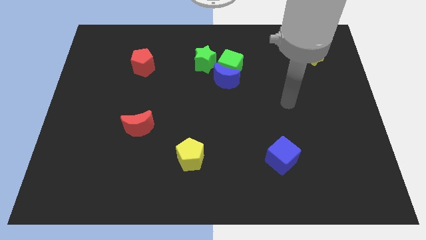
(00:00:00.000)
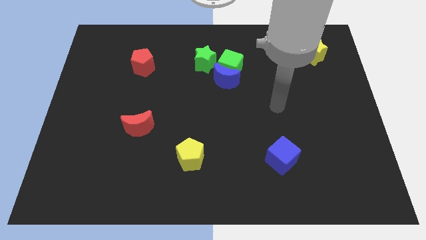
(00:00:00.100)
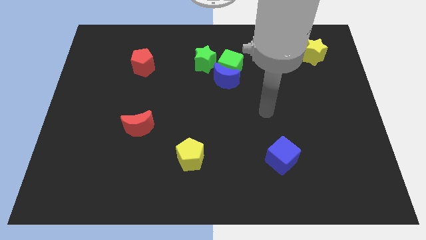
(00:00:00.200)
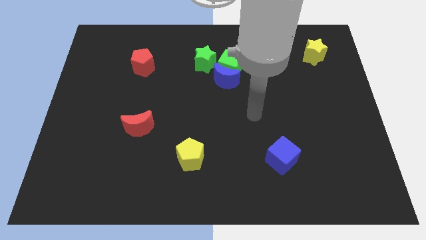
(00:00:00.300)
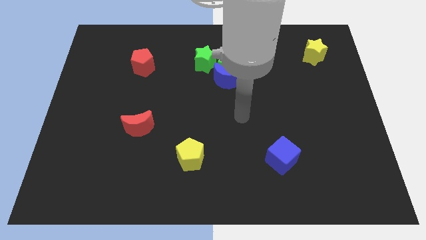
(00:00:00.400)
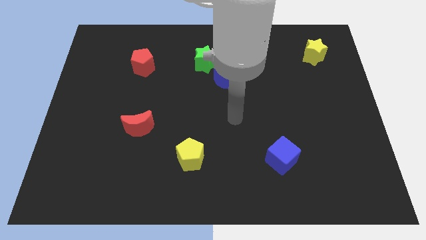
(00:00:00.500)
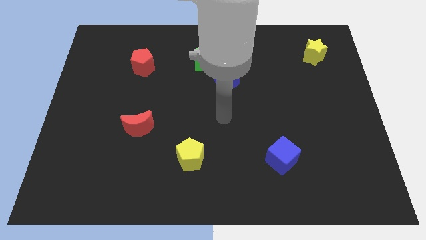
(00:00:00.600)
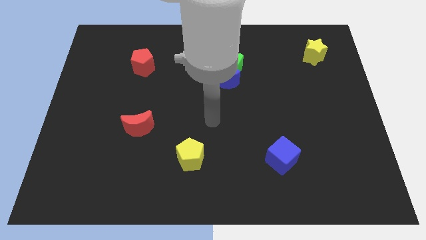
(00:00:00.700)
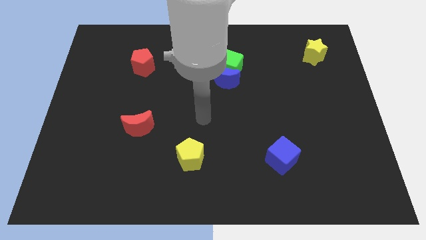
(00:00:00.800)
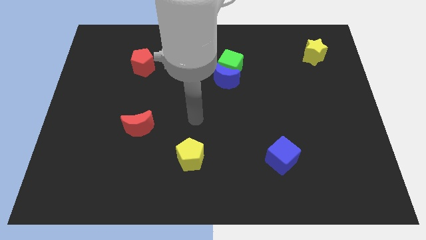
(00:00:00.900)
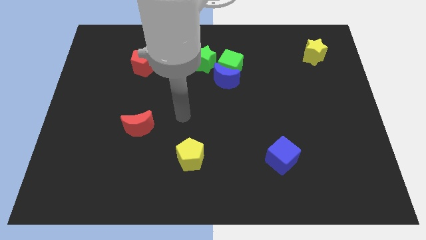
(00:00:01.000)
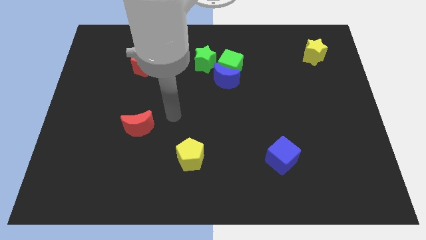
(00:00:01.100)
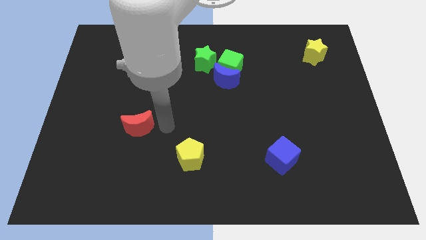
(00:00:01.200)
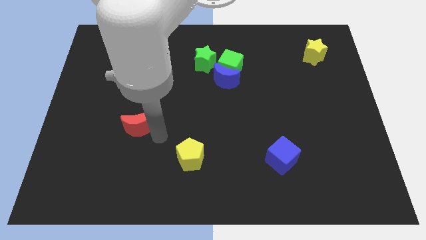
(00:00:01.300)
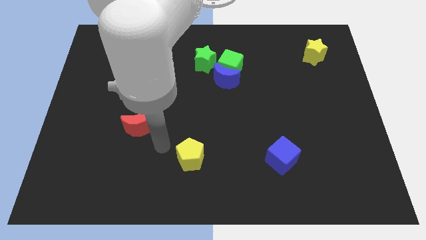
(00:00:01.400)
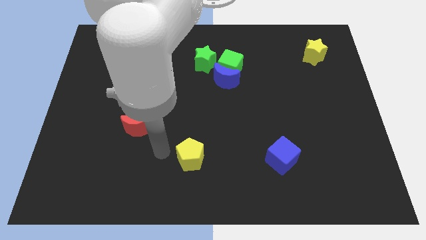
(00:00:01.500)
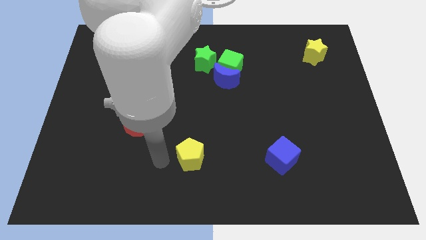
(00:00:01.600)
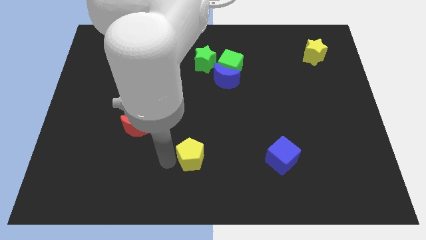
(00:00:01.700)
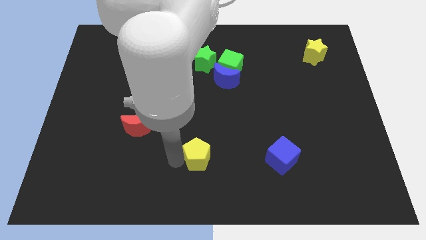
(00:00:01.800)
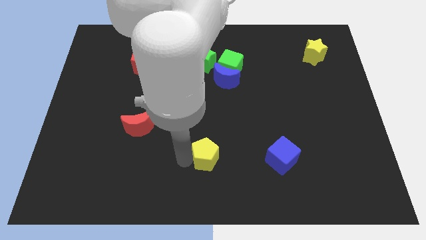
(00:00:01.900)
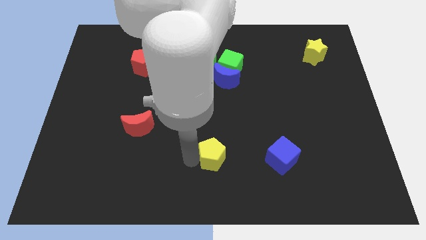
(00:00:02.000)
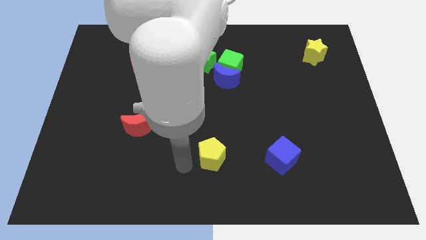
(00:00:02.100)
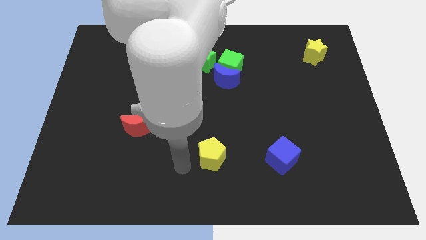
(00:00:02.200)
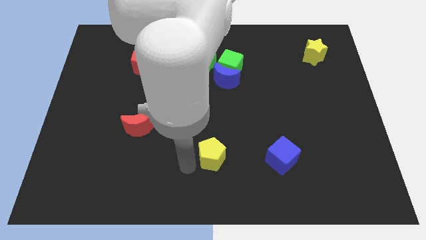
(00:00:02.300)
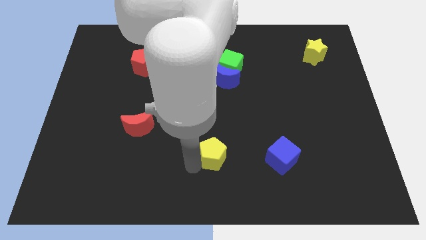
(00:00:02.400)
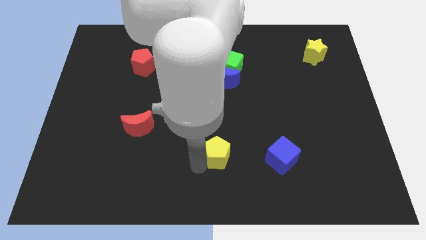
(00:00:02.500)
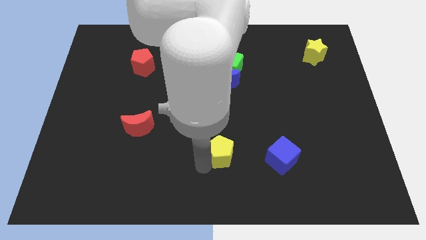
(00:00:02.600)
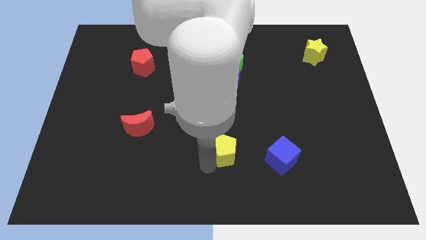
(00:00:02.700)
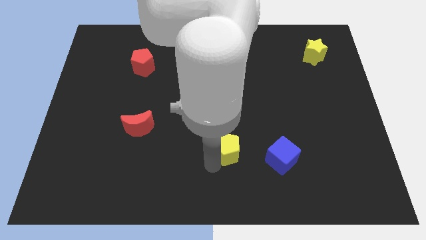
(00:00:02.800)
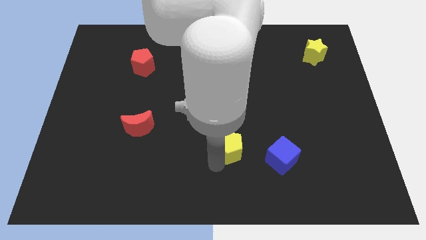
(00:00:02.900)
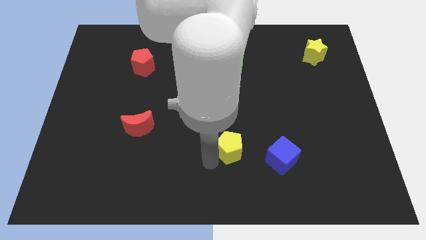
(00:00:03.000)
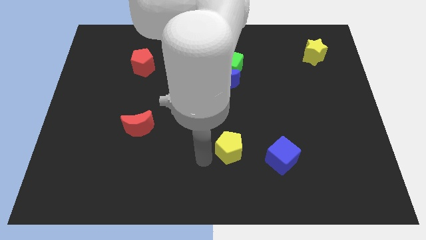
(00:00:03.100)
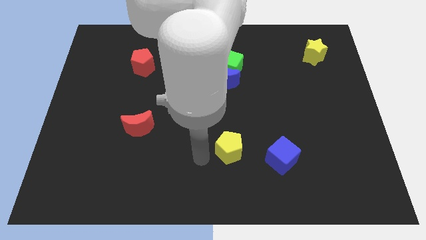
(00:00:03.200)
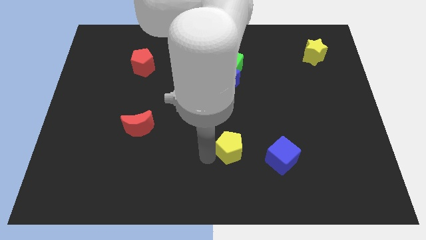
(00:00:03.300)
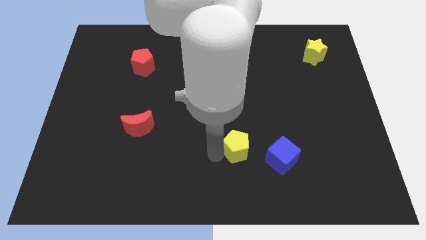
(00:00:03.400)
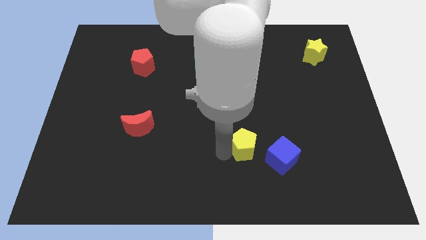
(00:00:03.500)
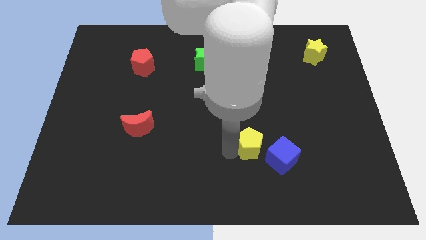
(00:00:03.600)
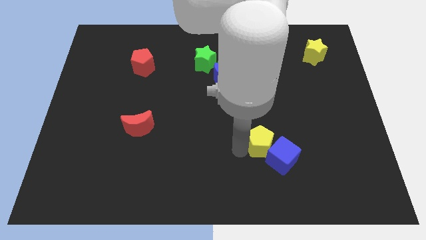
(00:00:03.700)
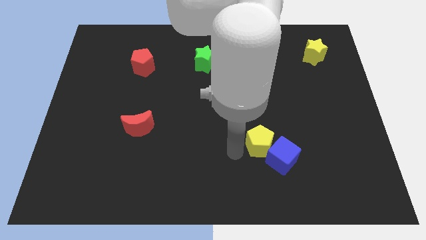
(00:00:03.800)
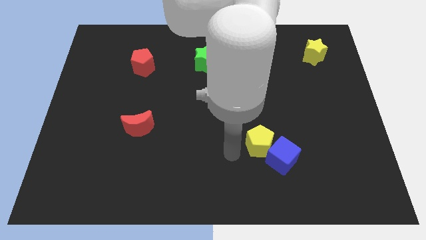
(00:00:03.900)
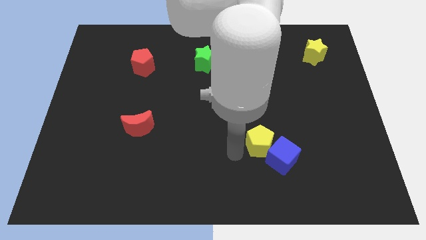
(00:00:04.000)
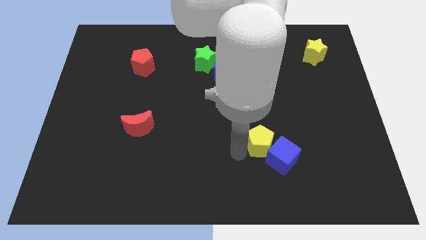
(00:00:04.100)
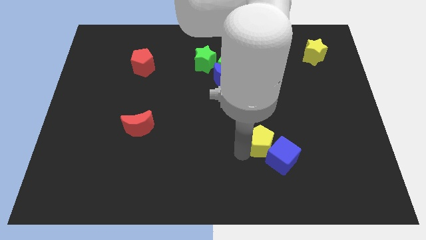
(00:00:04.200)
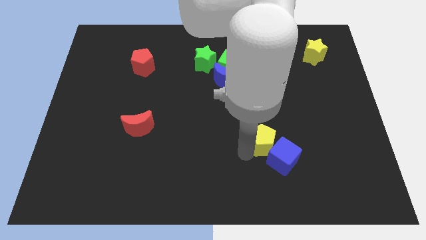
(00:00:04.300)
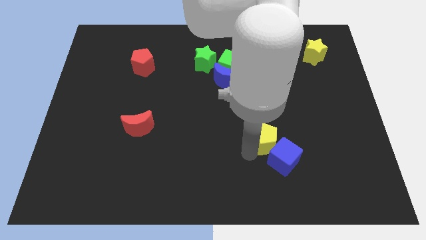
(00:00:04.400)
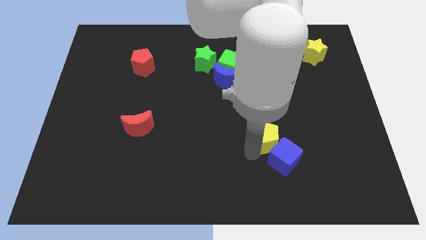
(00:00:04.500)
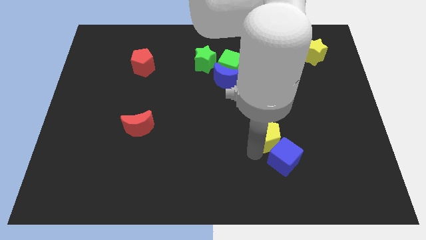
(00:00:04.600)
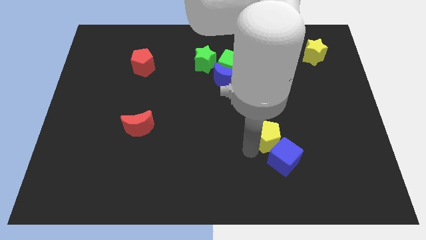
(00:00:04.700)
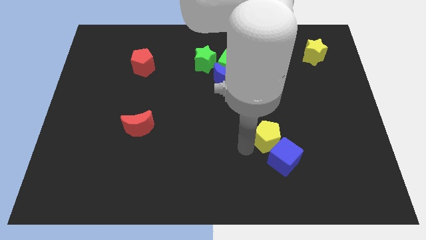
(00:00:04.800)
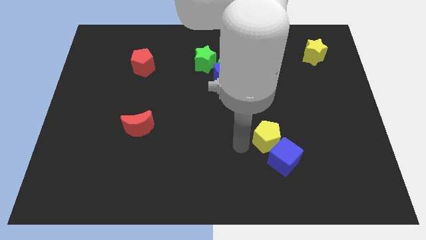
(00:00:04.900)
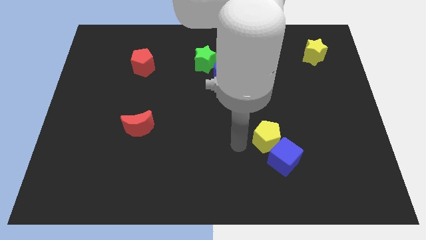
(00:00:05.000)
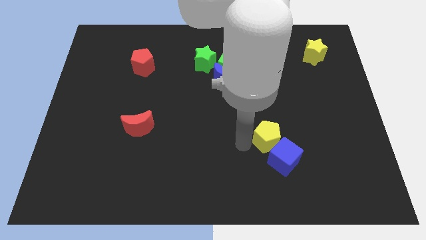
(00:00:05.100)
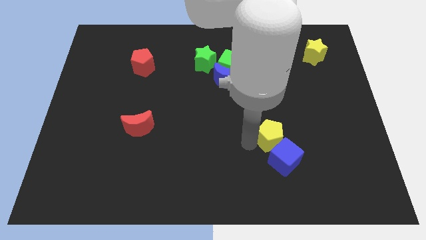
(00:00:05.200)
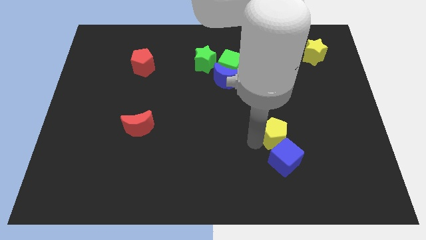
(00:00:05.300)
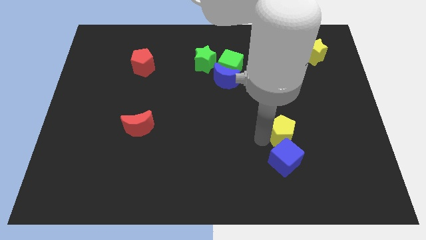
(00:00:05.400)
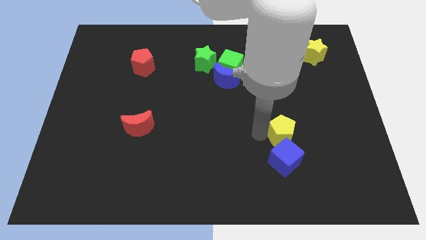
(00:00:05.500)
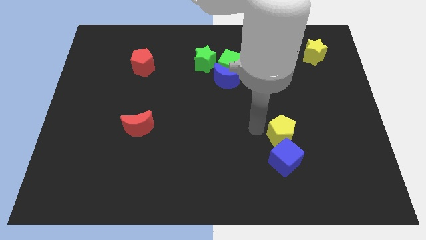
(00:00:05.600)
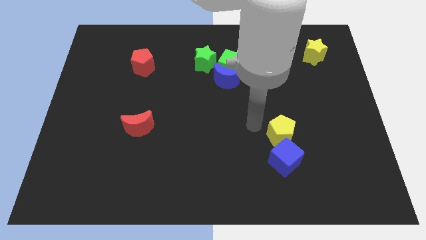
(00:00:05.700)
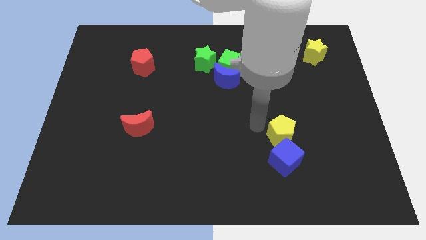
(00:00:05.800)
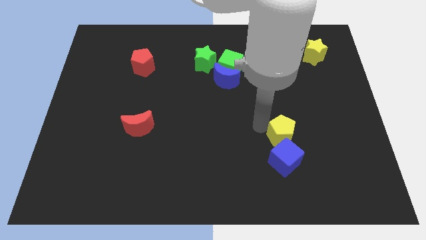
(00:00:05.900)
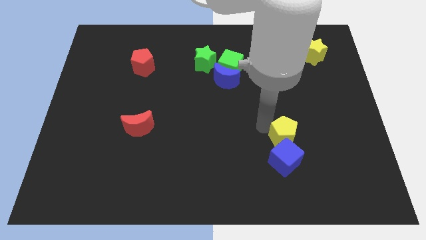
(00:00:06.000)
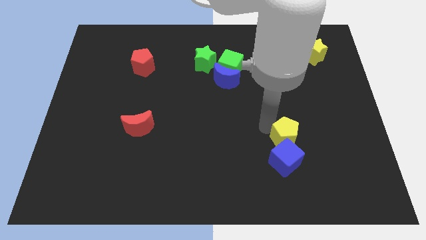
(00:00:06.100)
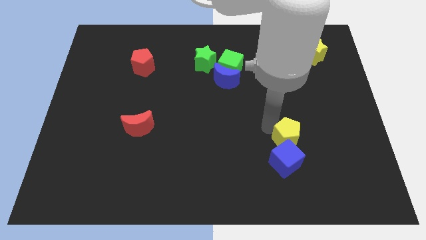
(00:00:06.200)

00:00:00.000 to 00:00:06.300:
push the yellow pentagon to the right

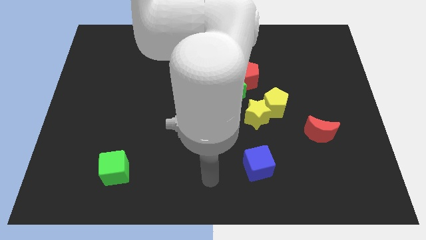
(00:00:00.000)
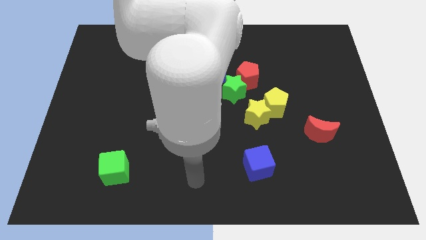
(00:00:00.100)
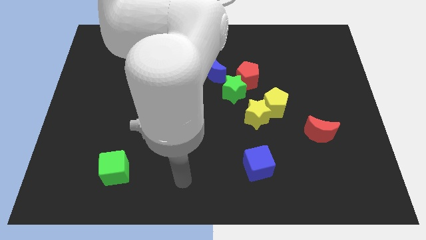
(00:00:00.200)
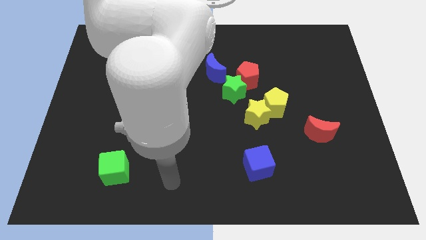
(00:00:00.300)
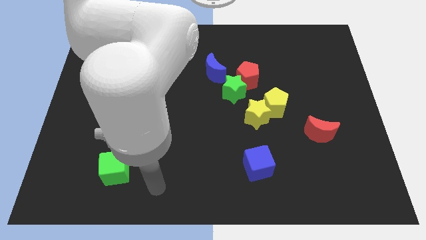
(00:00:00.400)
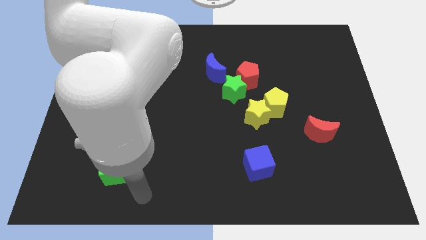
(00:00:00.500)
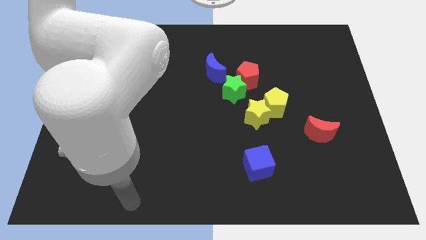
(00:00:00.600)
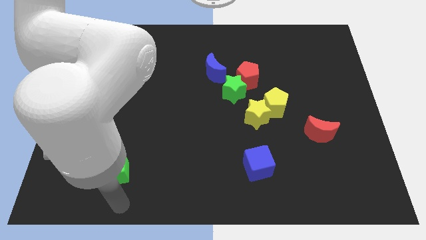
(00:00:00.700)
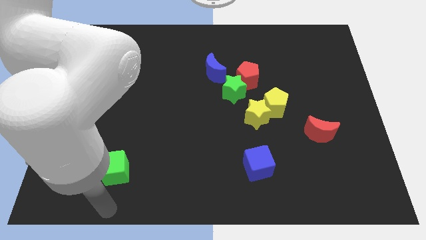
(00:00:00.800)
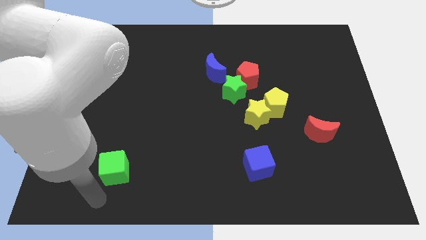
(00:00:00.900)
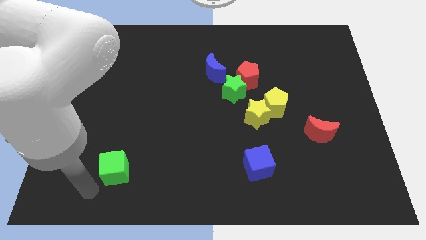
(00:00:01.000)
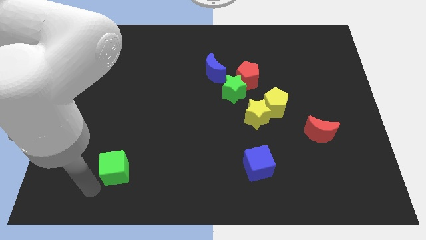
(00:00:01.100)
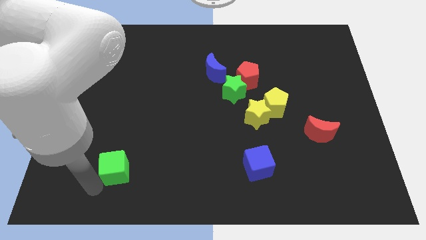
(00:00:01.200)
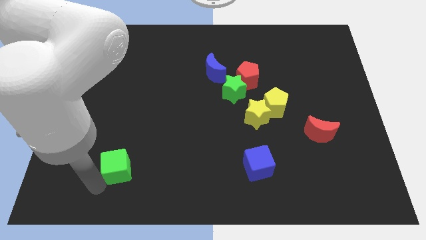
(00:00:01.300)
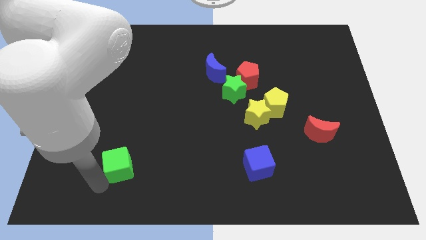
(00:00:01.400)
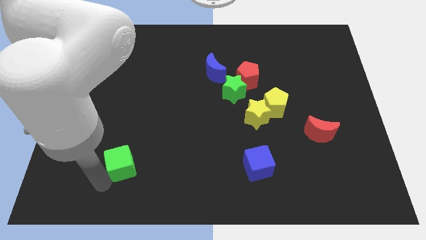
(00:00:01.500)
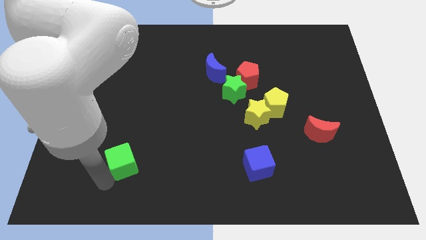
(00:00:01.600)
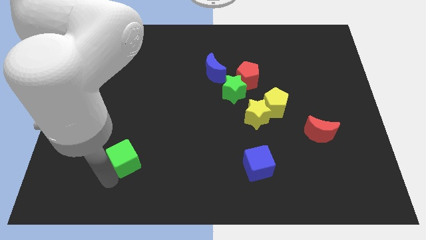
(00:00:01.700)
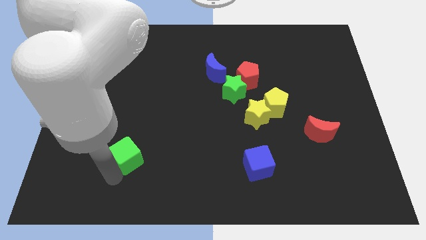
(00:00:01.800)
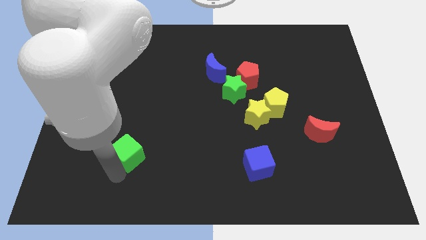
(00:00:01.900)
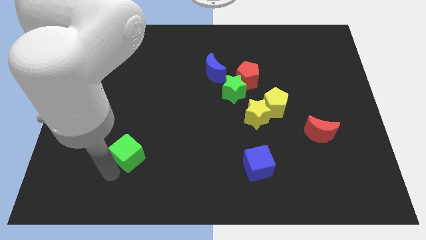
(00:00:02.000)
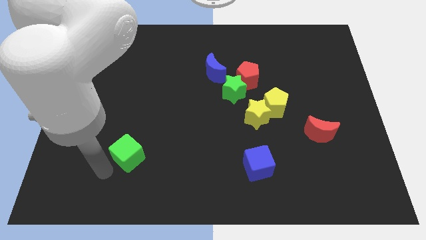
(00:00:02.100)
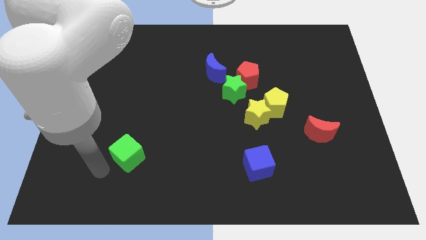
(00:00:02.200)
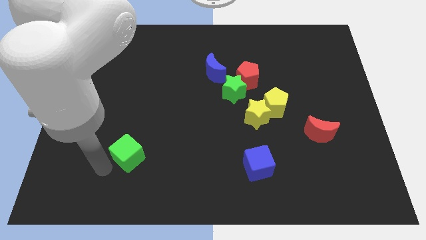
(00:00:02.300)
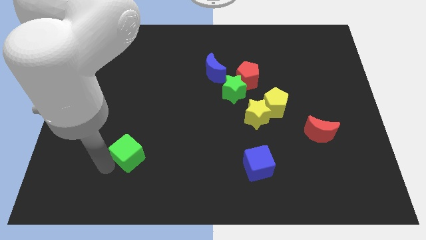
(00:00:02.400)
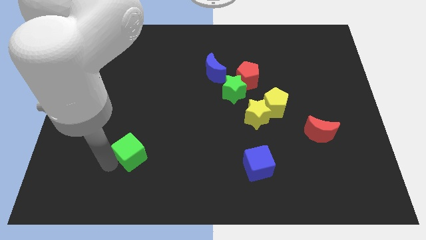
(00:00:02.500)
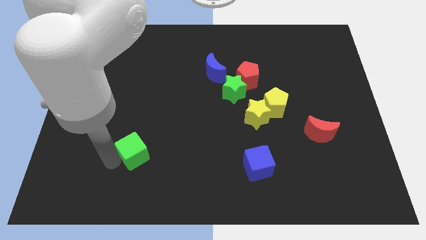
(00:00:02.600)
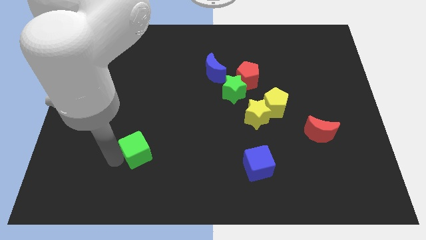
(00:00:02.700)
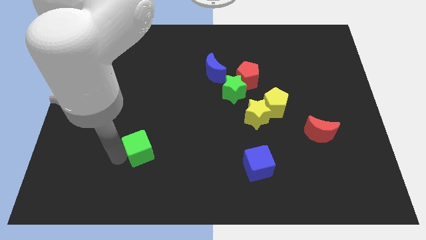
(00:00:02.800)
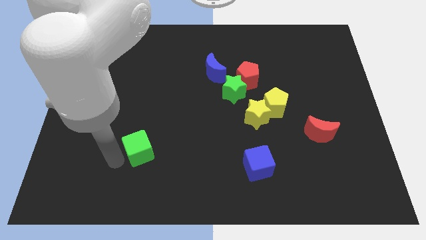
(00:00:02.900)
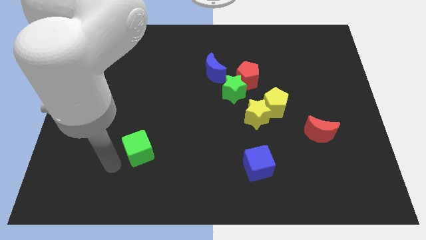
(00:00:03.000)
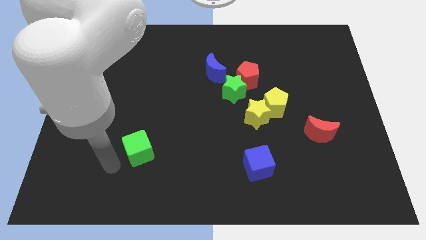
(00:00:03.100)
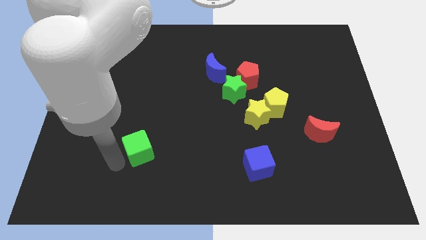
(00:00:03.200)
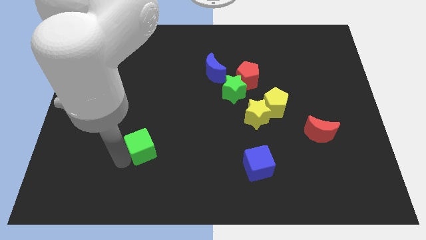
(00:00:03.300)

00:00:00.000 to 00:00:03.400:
slightly slide the green cube up and then right
